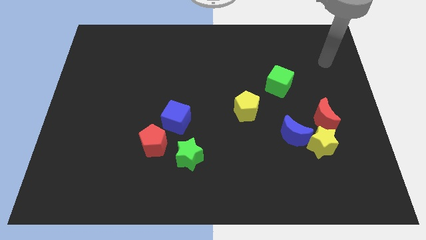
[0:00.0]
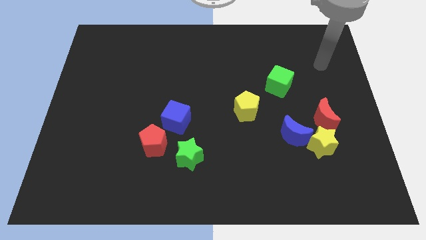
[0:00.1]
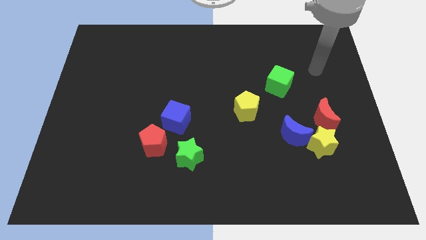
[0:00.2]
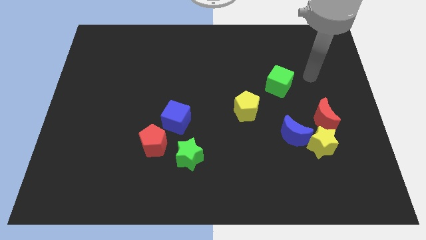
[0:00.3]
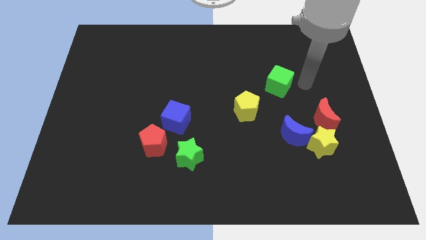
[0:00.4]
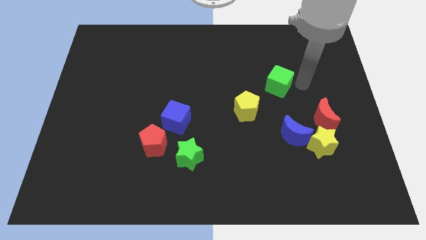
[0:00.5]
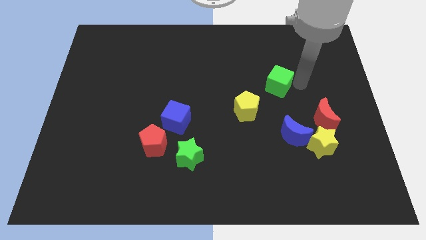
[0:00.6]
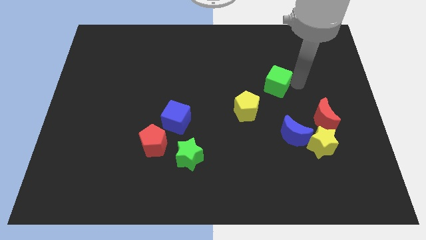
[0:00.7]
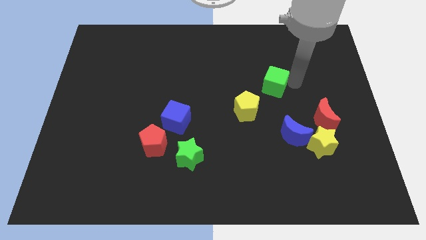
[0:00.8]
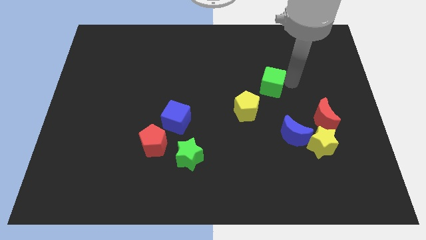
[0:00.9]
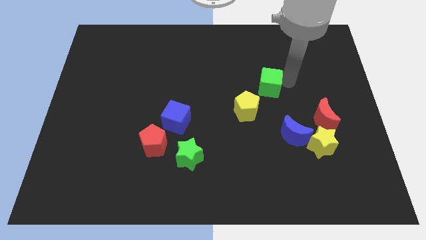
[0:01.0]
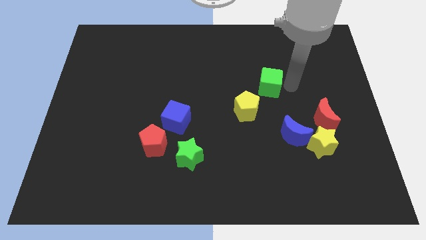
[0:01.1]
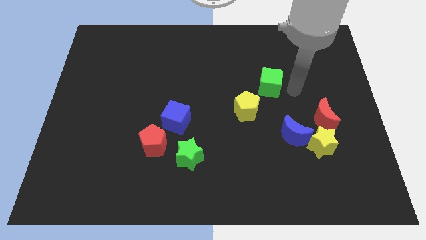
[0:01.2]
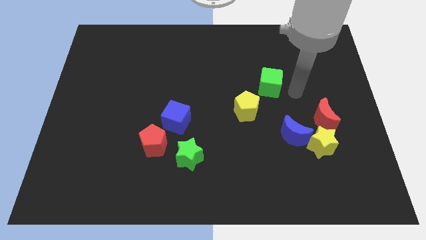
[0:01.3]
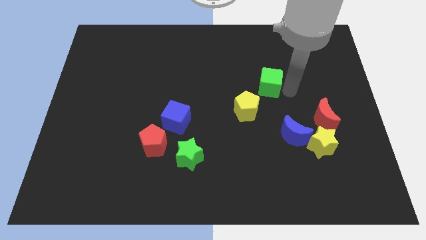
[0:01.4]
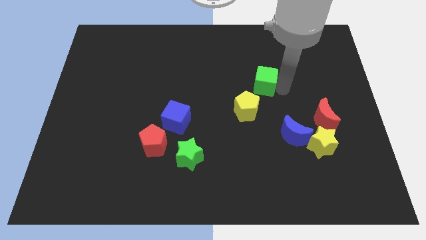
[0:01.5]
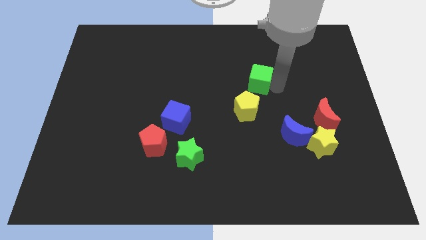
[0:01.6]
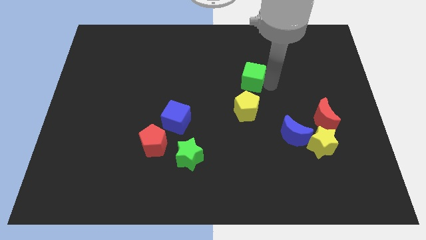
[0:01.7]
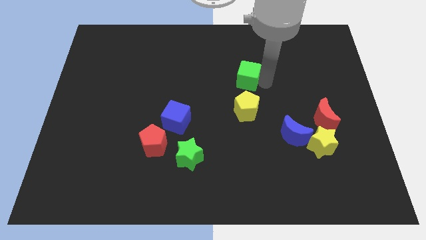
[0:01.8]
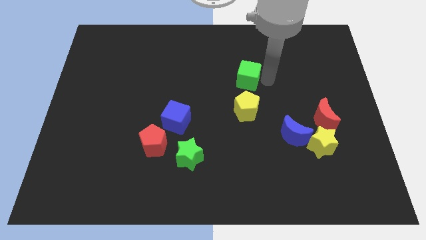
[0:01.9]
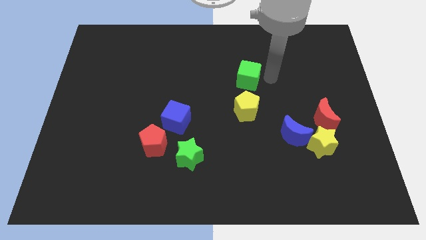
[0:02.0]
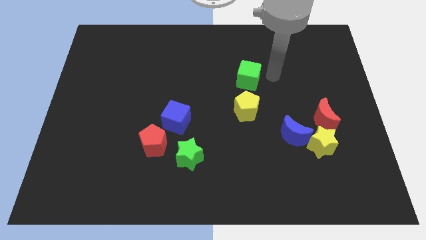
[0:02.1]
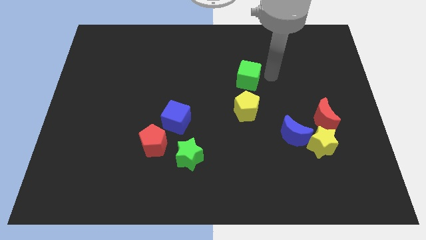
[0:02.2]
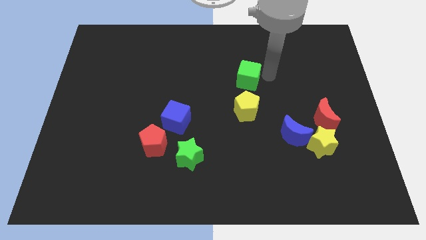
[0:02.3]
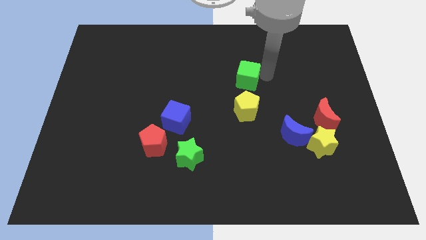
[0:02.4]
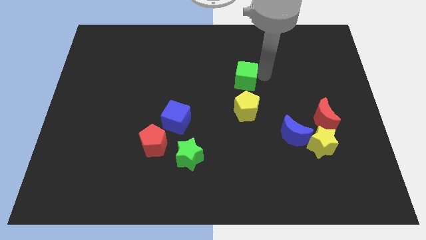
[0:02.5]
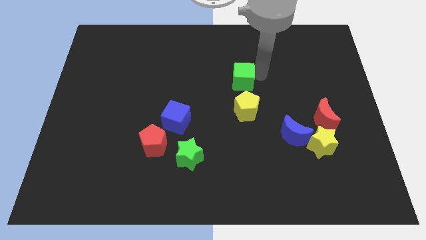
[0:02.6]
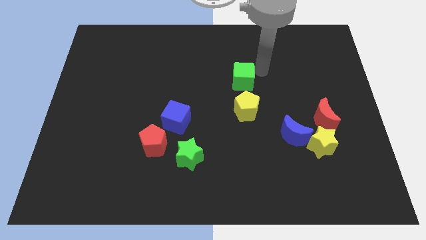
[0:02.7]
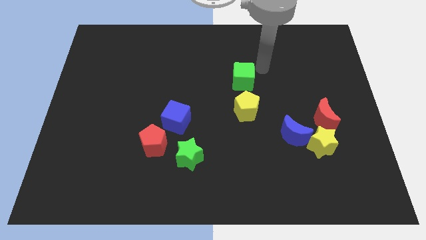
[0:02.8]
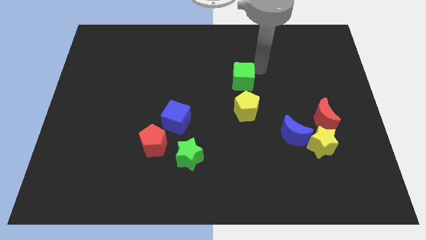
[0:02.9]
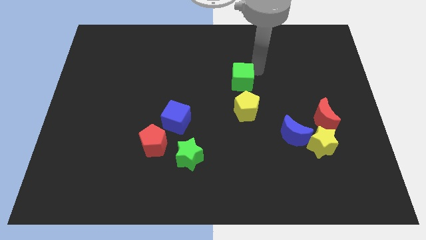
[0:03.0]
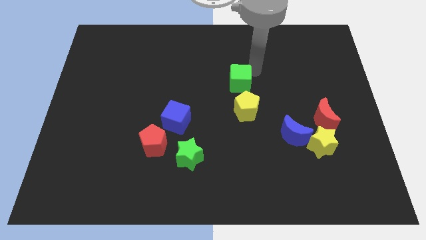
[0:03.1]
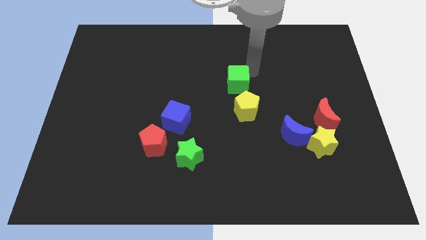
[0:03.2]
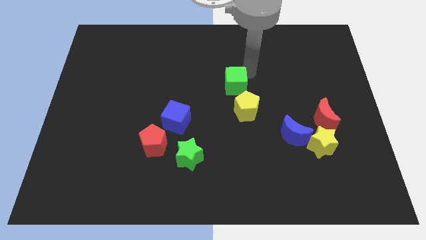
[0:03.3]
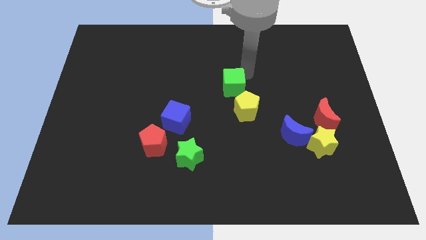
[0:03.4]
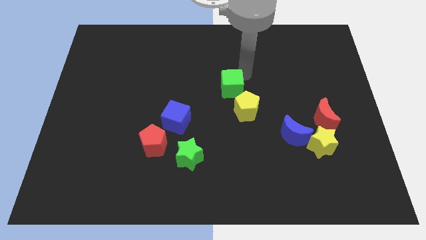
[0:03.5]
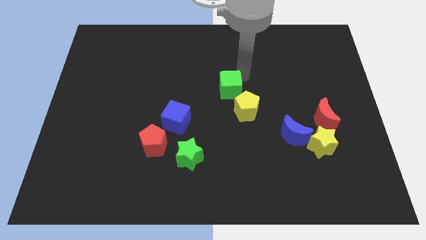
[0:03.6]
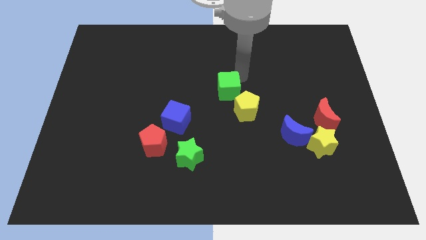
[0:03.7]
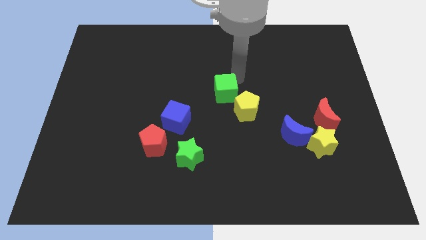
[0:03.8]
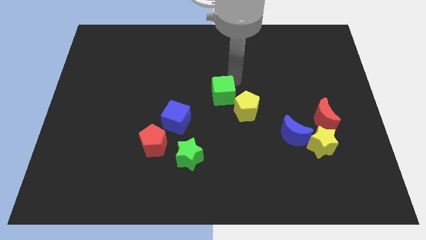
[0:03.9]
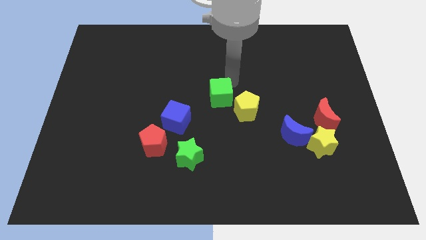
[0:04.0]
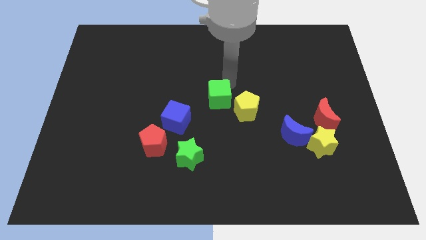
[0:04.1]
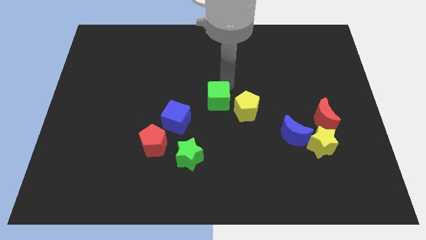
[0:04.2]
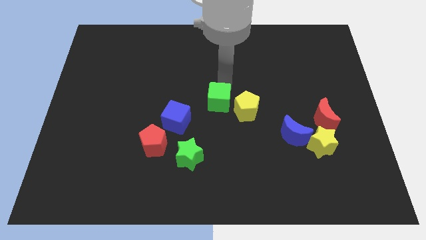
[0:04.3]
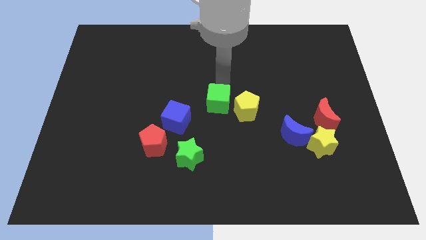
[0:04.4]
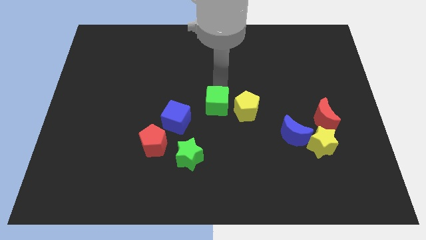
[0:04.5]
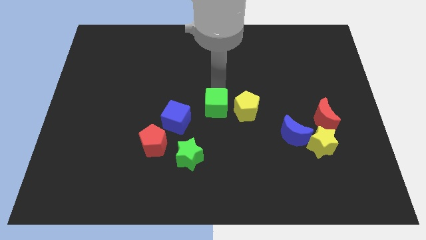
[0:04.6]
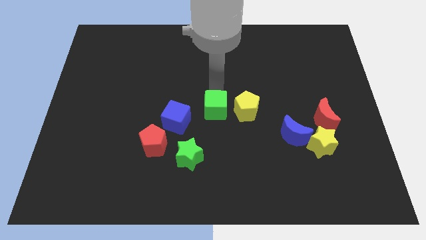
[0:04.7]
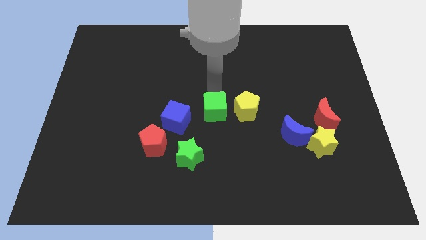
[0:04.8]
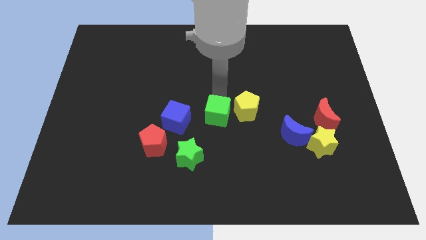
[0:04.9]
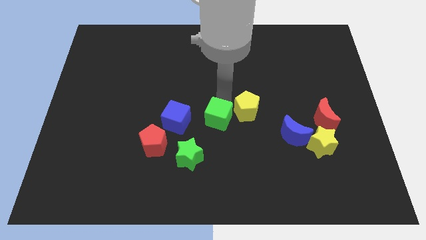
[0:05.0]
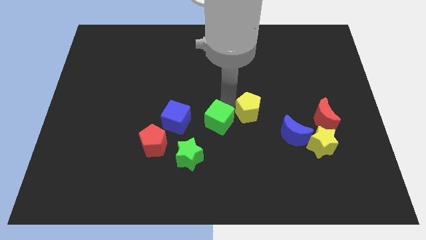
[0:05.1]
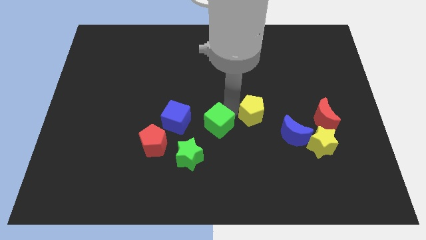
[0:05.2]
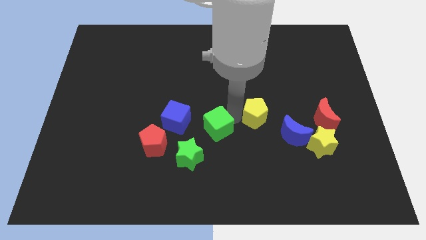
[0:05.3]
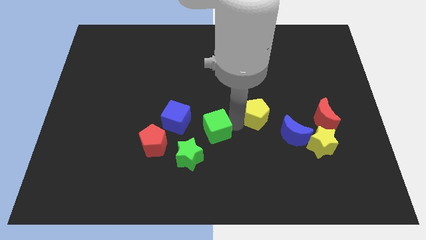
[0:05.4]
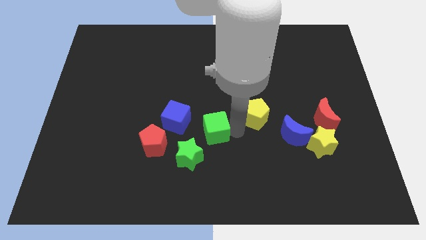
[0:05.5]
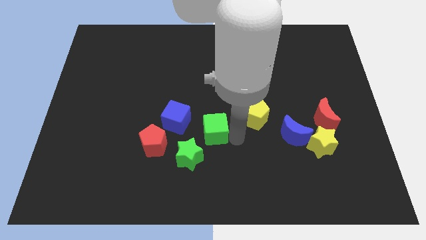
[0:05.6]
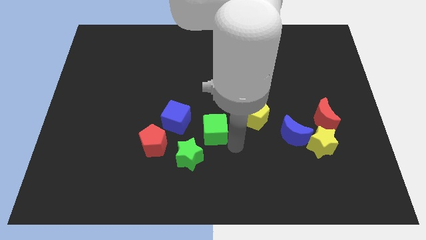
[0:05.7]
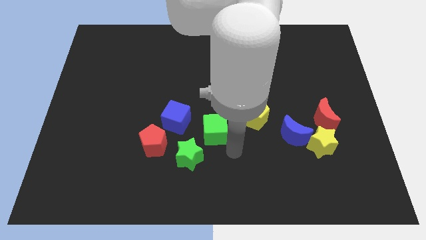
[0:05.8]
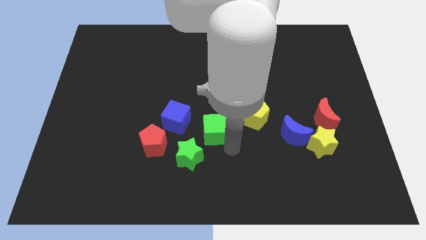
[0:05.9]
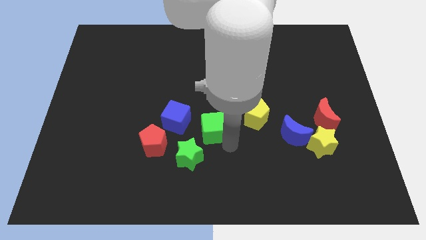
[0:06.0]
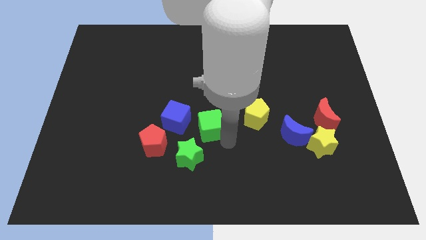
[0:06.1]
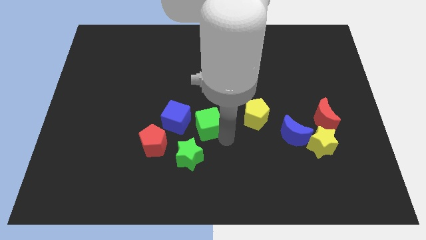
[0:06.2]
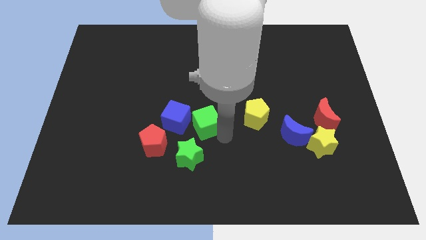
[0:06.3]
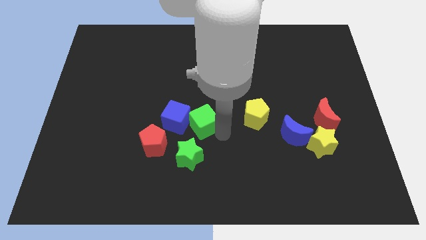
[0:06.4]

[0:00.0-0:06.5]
push the green cube towards the blue cube

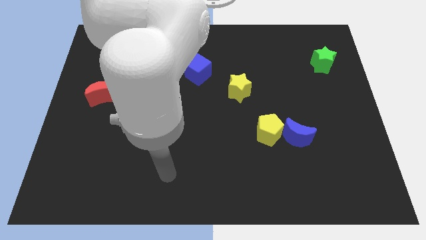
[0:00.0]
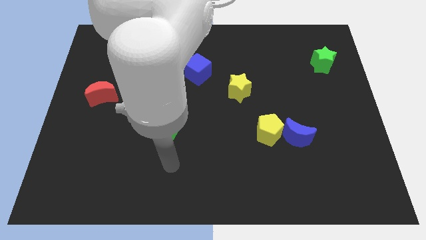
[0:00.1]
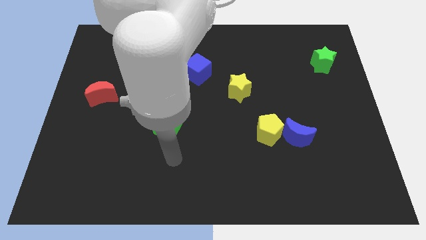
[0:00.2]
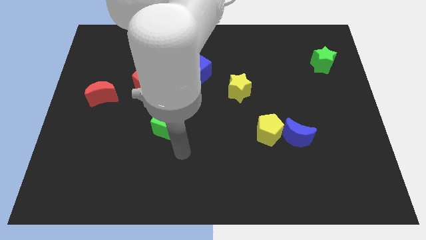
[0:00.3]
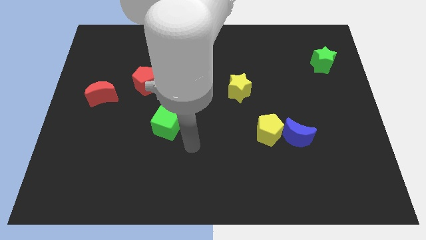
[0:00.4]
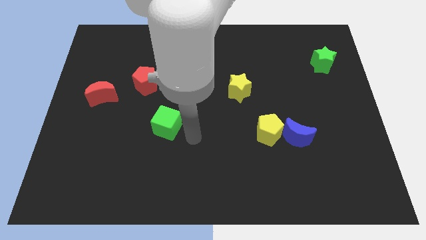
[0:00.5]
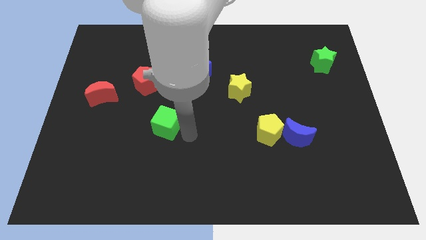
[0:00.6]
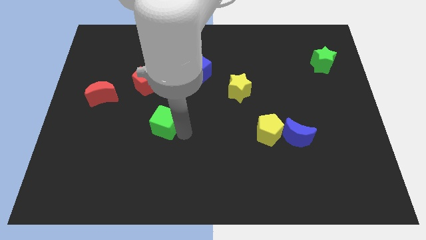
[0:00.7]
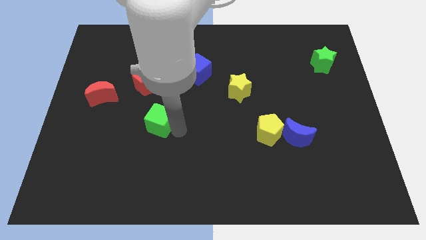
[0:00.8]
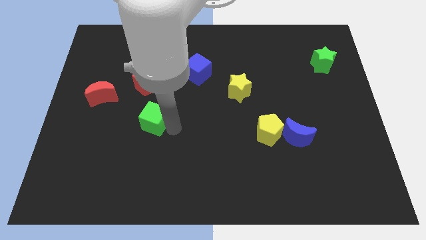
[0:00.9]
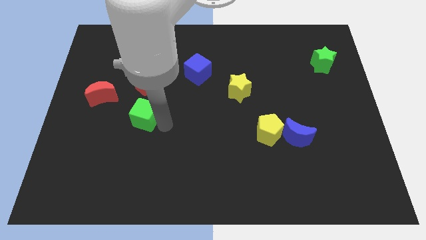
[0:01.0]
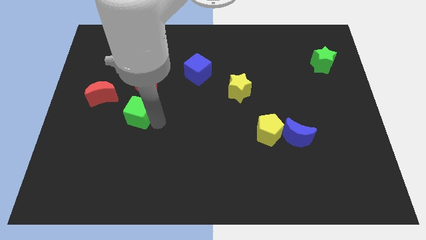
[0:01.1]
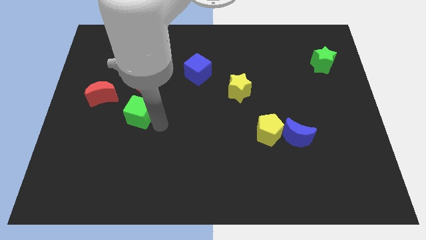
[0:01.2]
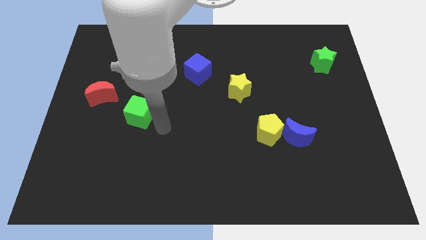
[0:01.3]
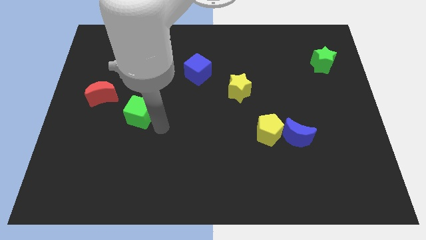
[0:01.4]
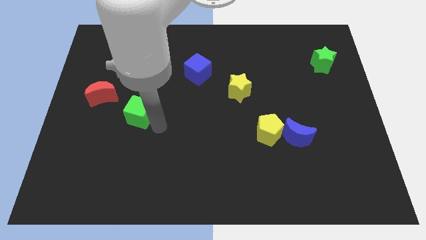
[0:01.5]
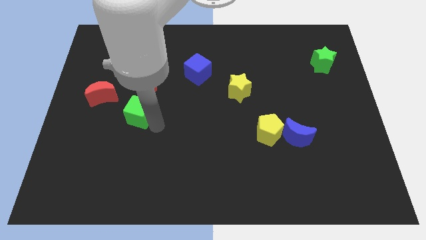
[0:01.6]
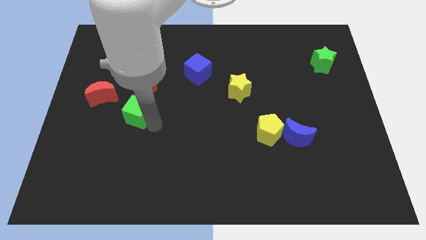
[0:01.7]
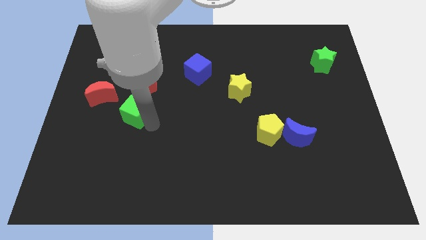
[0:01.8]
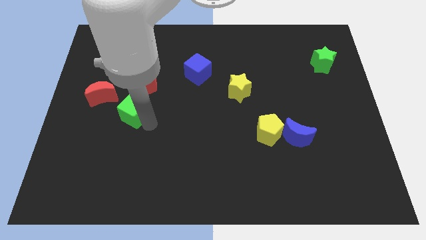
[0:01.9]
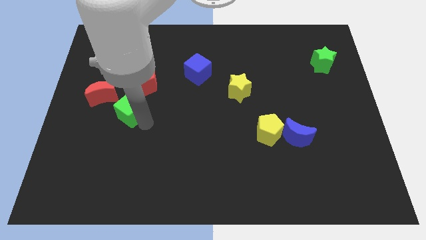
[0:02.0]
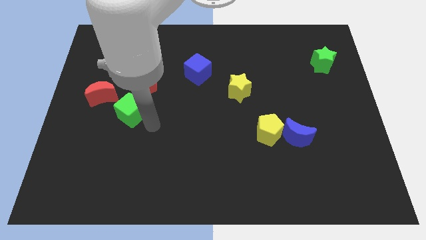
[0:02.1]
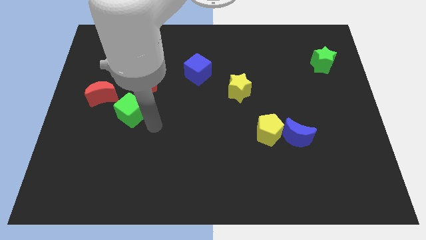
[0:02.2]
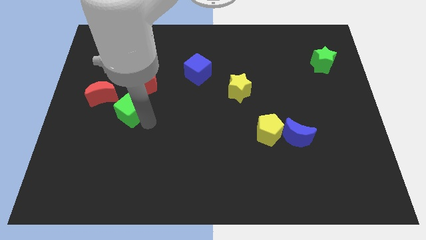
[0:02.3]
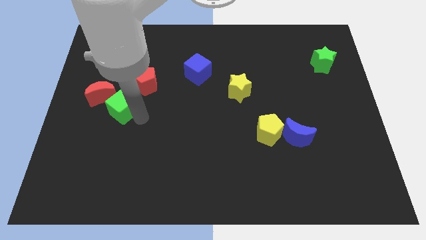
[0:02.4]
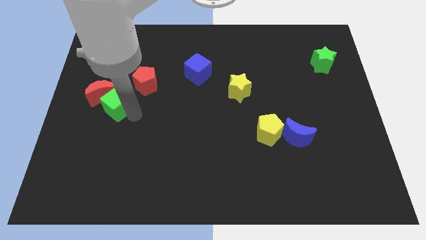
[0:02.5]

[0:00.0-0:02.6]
slide the green cube to the red moon
